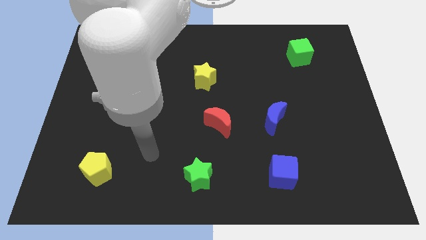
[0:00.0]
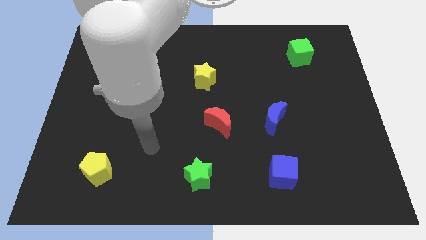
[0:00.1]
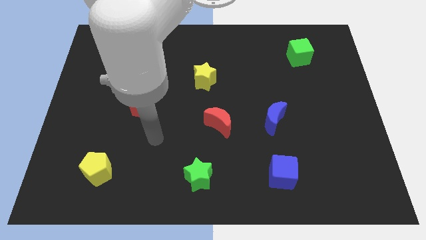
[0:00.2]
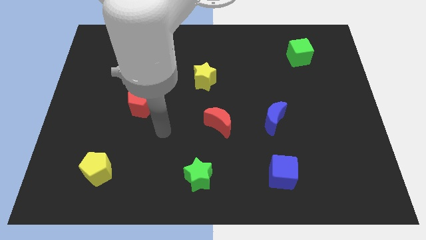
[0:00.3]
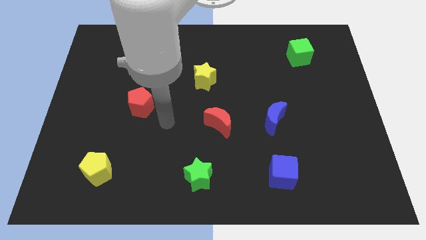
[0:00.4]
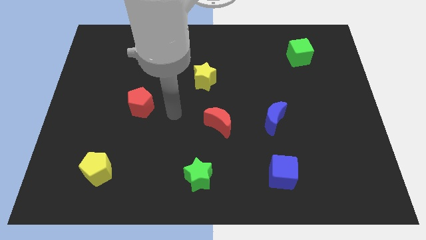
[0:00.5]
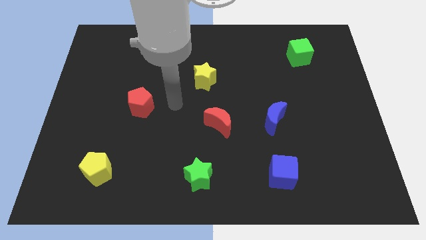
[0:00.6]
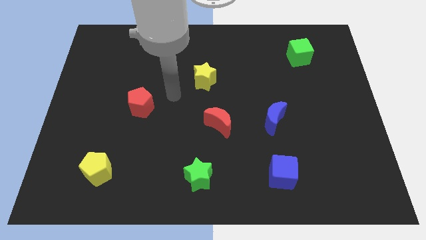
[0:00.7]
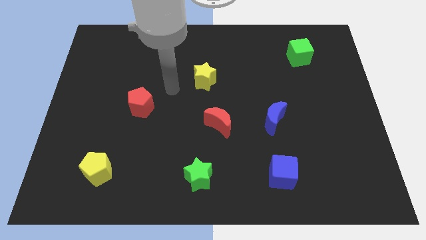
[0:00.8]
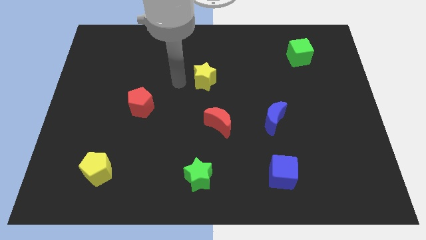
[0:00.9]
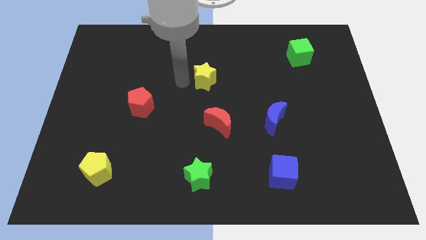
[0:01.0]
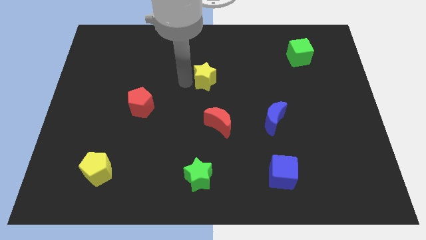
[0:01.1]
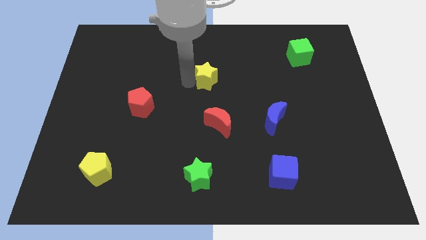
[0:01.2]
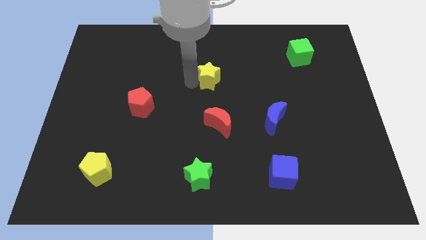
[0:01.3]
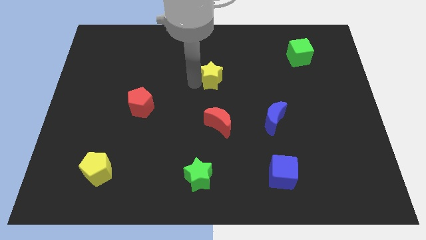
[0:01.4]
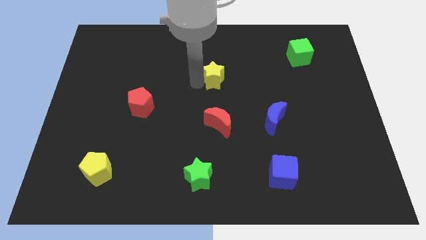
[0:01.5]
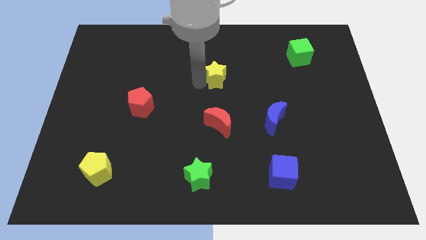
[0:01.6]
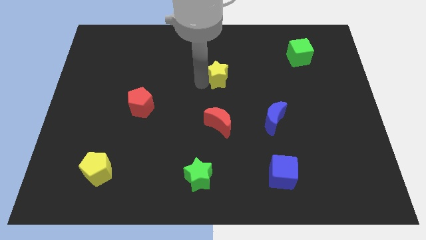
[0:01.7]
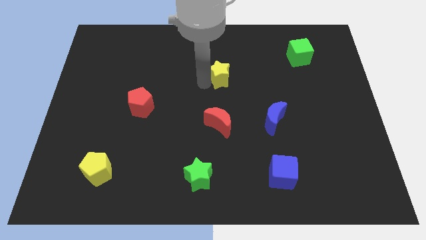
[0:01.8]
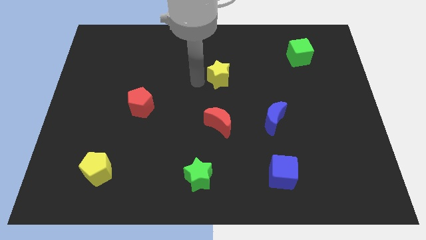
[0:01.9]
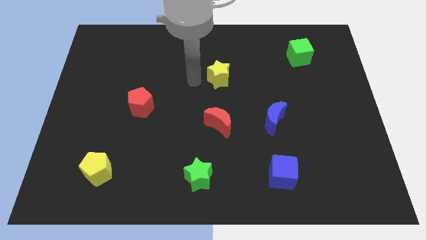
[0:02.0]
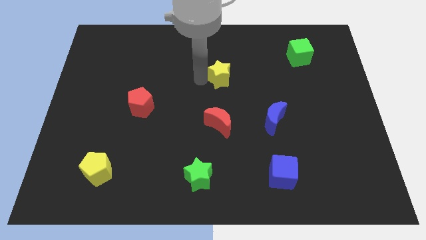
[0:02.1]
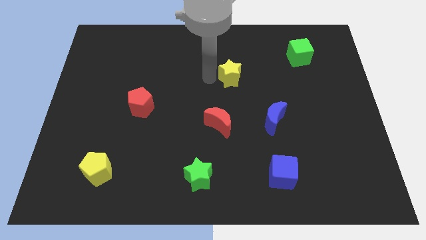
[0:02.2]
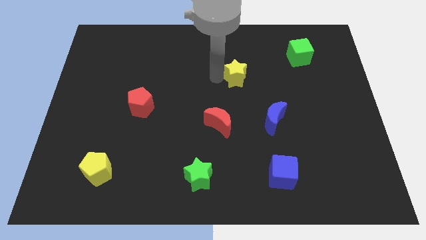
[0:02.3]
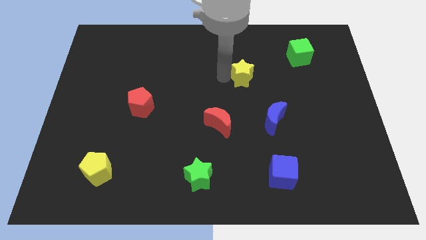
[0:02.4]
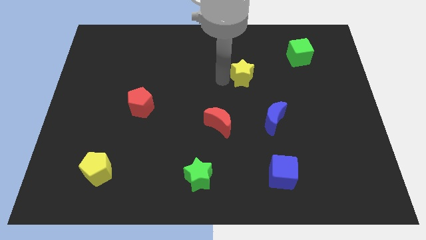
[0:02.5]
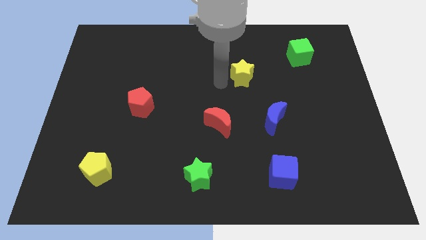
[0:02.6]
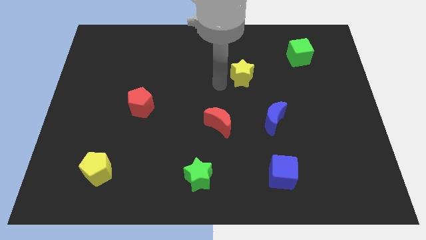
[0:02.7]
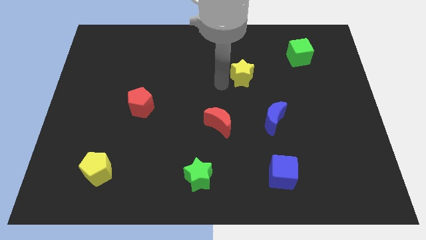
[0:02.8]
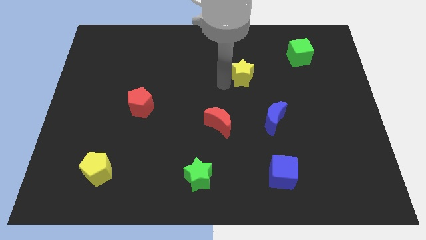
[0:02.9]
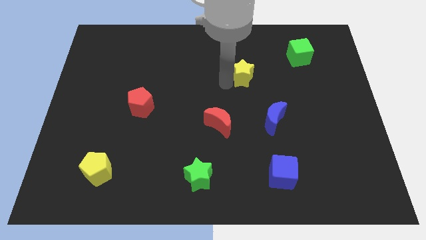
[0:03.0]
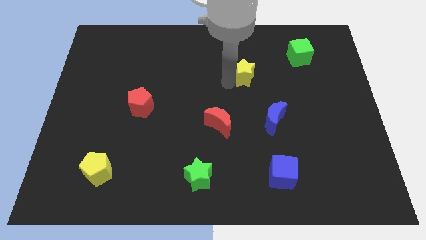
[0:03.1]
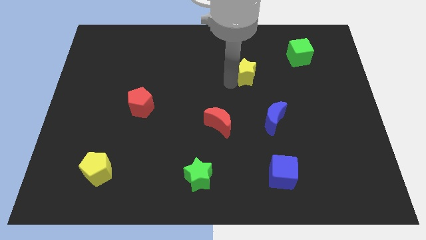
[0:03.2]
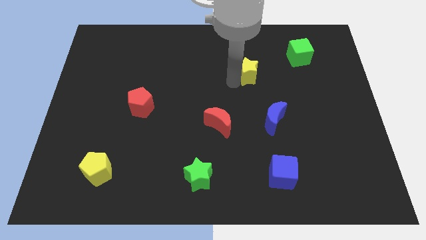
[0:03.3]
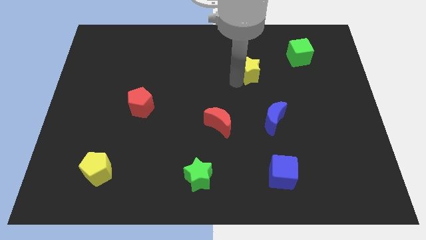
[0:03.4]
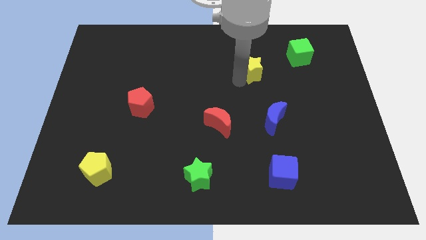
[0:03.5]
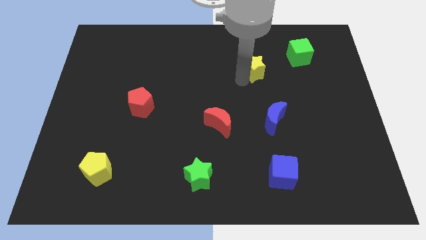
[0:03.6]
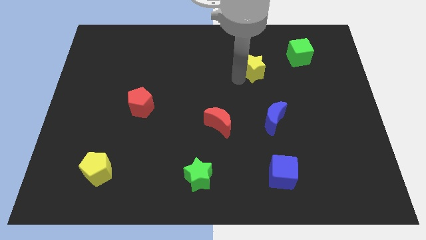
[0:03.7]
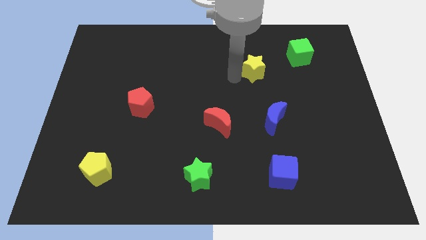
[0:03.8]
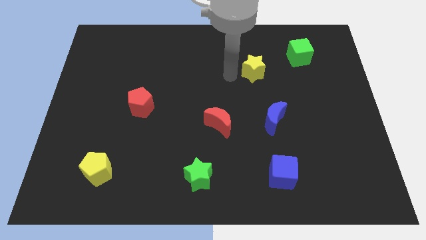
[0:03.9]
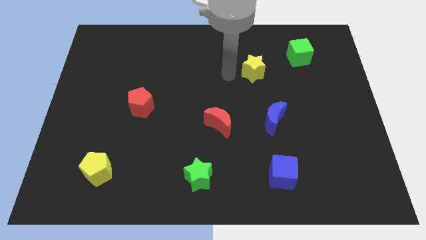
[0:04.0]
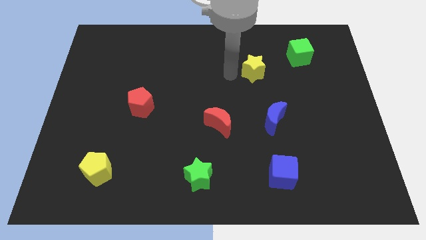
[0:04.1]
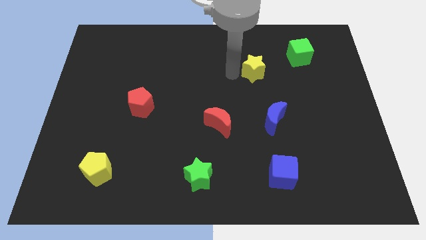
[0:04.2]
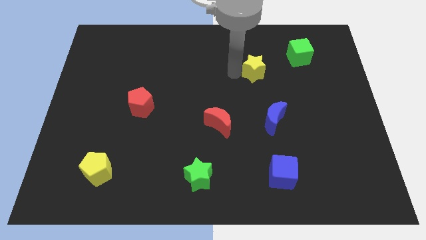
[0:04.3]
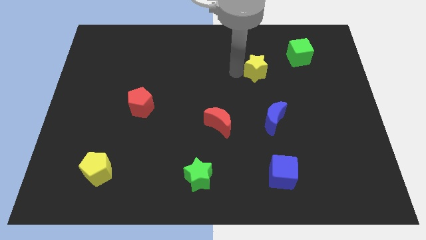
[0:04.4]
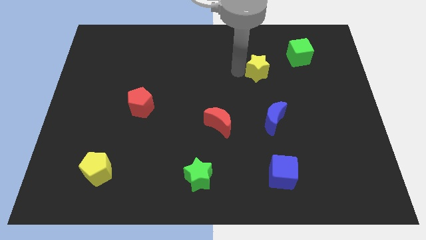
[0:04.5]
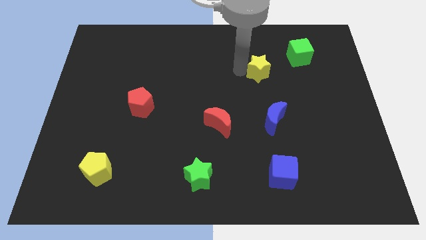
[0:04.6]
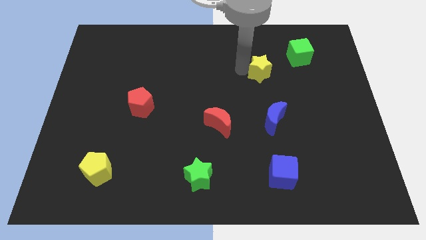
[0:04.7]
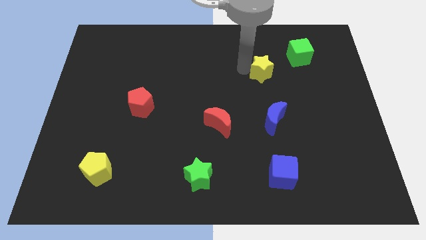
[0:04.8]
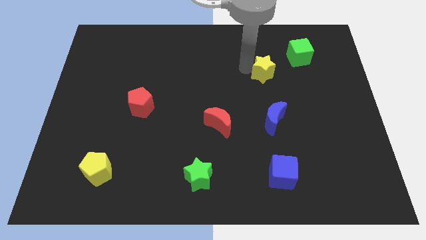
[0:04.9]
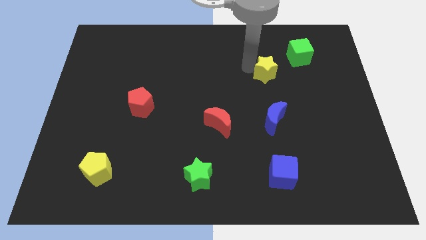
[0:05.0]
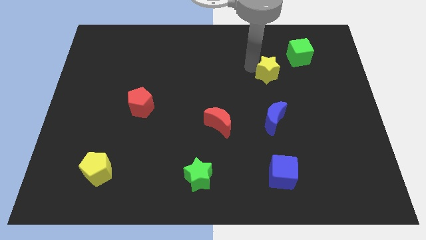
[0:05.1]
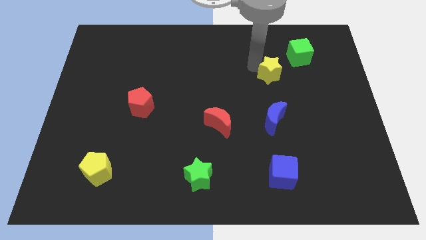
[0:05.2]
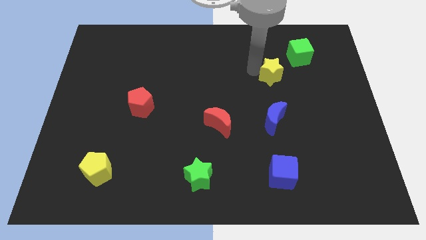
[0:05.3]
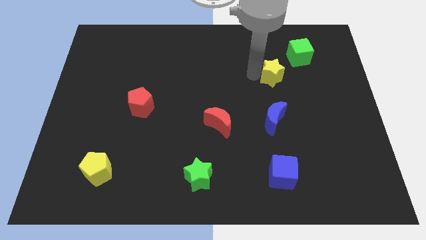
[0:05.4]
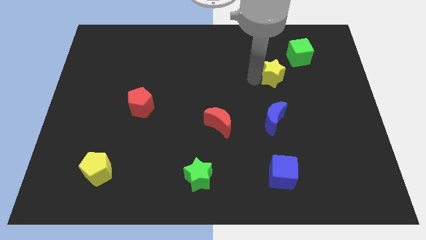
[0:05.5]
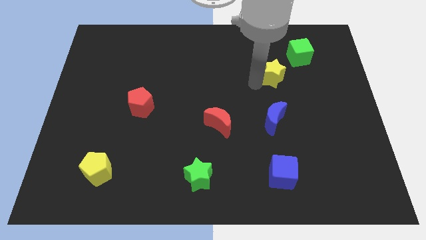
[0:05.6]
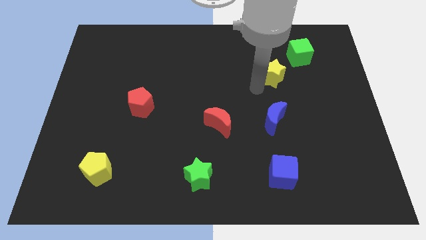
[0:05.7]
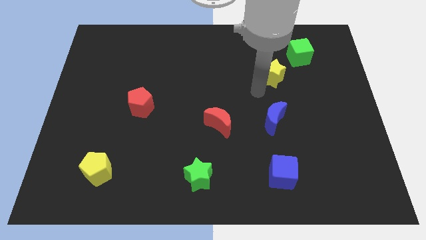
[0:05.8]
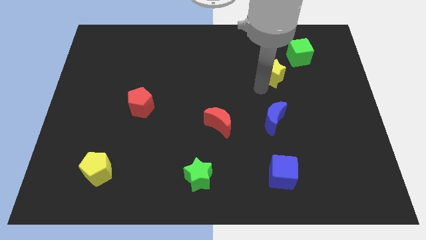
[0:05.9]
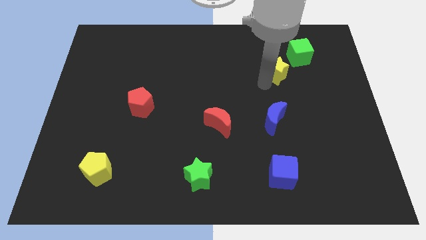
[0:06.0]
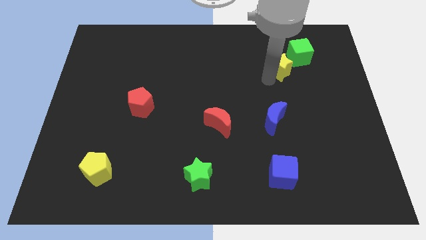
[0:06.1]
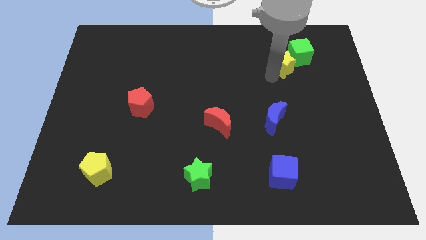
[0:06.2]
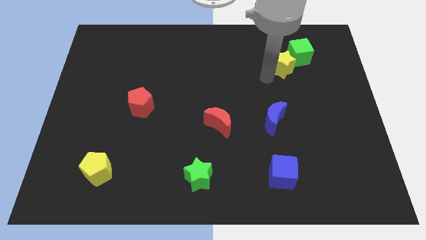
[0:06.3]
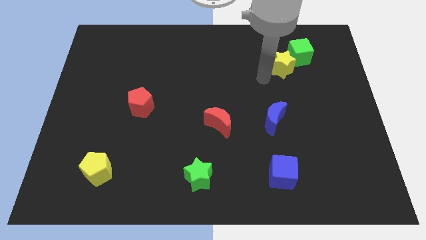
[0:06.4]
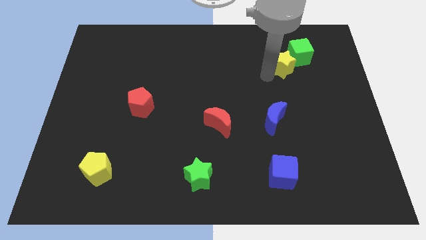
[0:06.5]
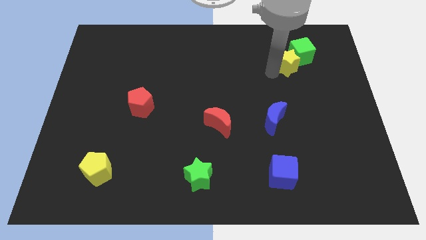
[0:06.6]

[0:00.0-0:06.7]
slide the yellow star close to the green cube

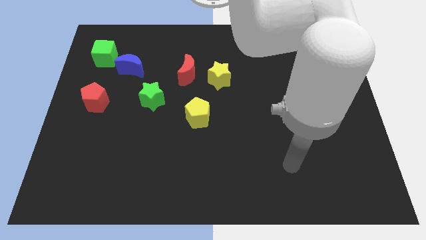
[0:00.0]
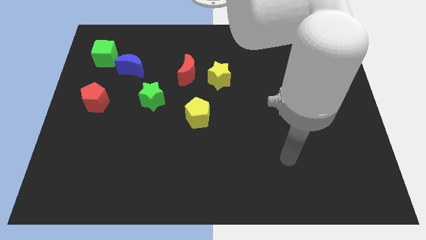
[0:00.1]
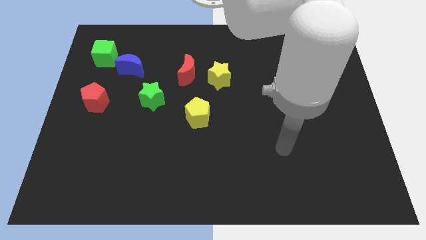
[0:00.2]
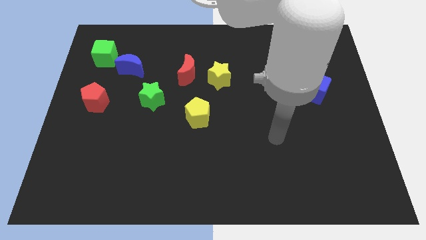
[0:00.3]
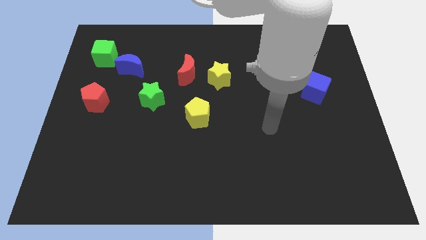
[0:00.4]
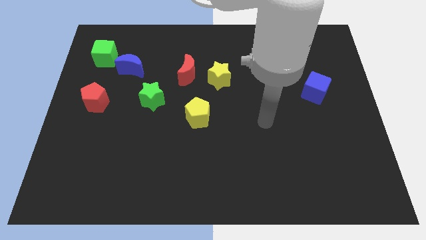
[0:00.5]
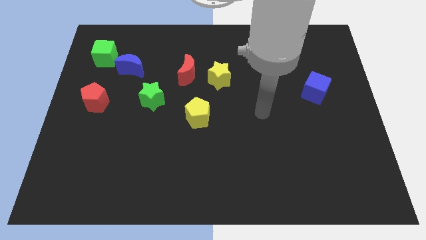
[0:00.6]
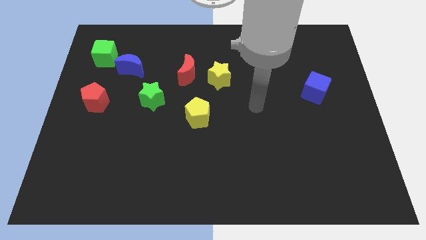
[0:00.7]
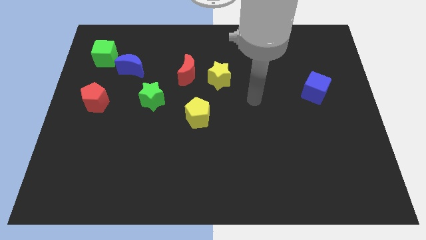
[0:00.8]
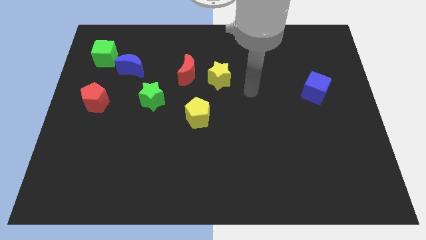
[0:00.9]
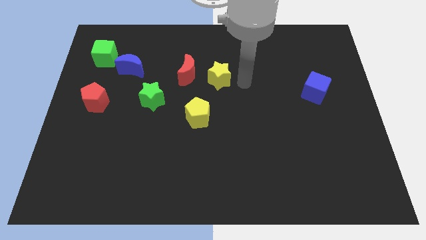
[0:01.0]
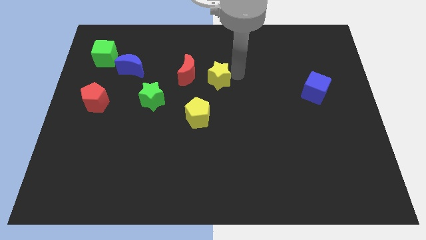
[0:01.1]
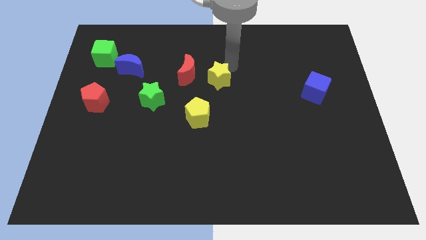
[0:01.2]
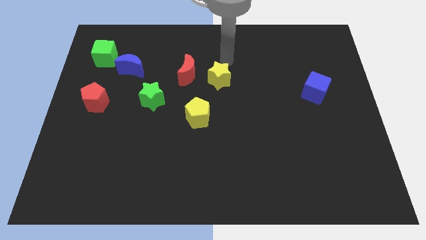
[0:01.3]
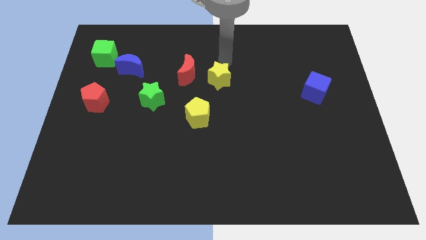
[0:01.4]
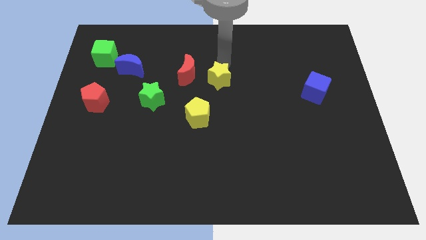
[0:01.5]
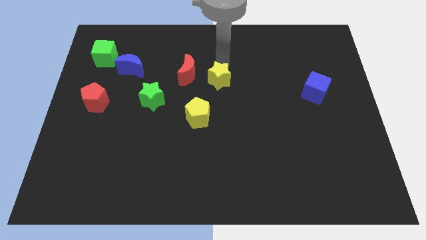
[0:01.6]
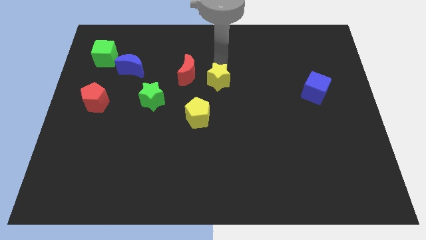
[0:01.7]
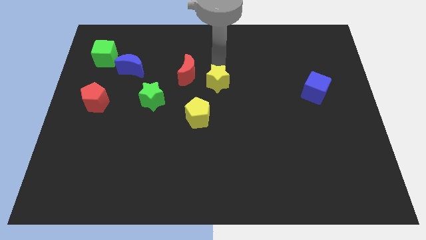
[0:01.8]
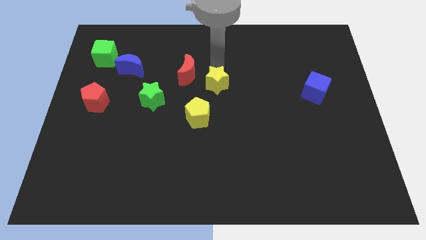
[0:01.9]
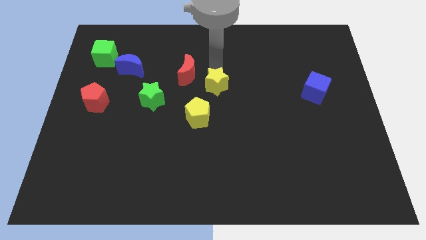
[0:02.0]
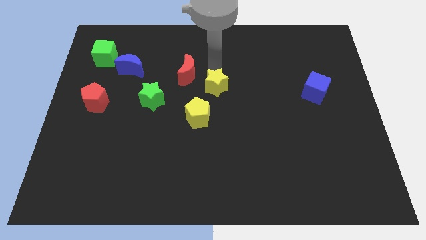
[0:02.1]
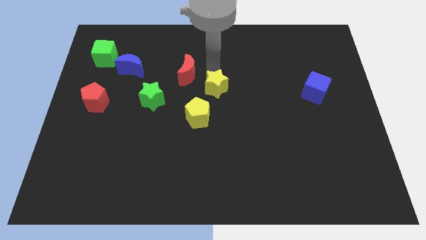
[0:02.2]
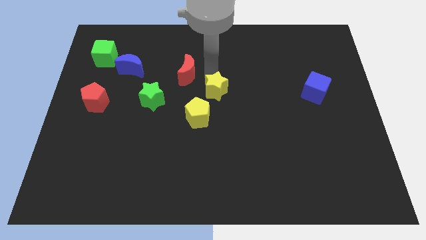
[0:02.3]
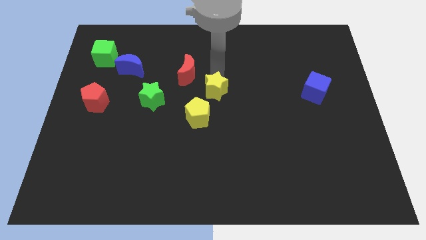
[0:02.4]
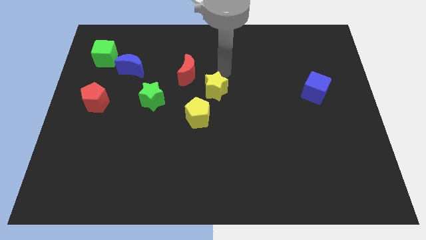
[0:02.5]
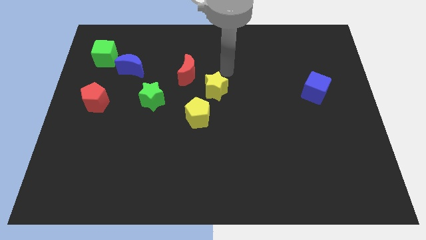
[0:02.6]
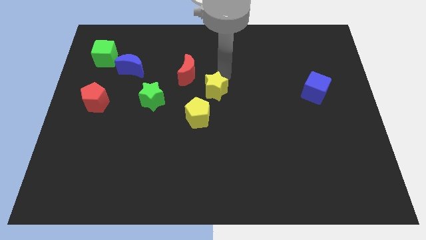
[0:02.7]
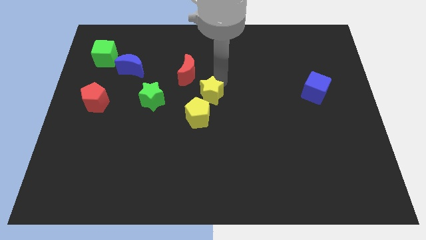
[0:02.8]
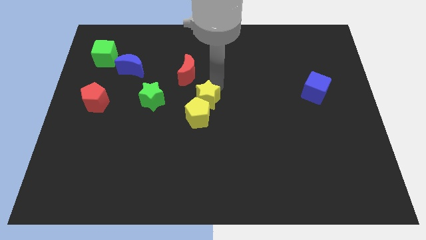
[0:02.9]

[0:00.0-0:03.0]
put the yellow star close to the yellow pentagon
